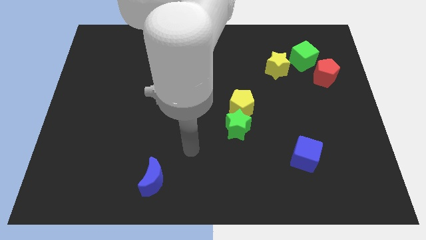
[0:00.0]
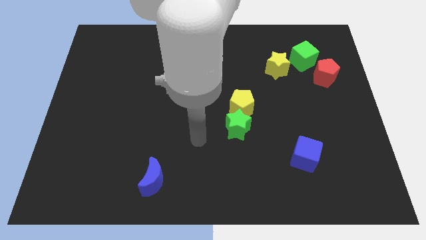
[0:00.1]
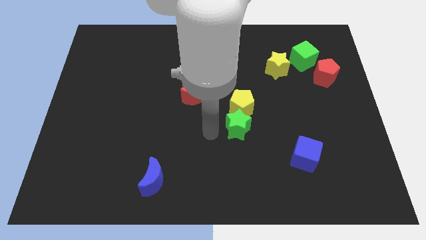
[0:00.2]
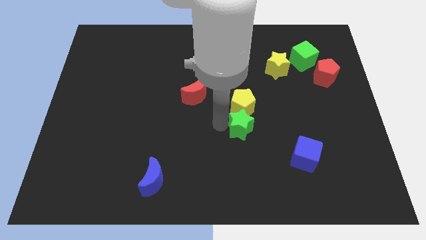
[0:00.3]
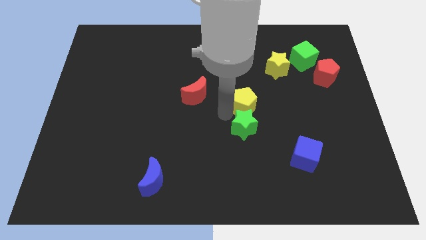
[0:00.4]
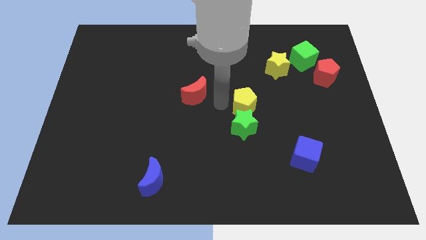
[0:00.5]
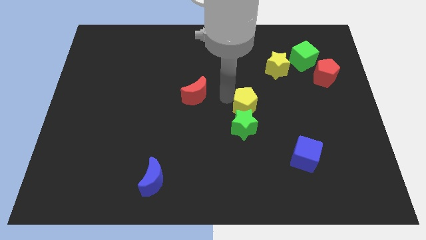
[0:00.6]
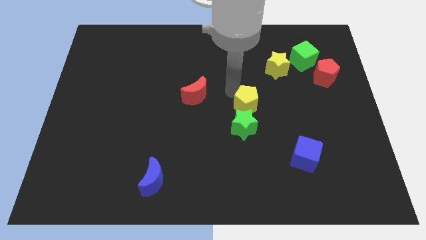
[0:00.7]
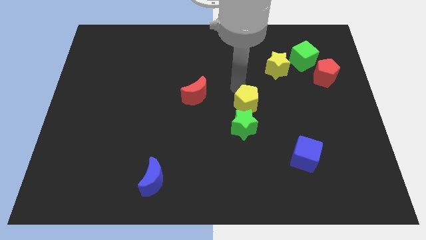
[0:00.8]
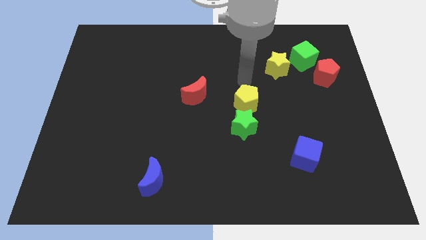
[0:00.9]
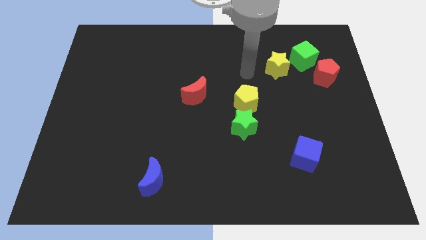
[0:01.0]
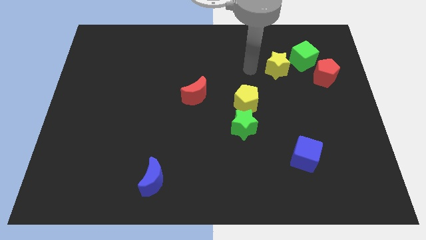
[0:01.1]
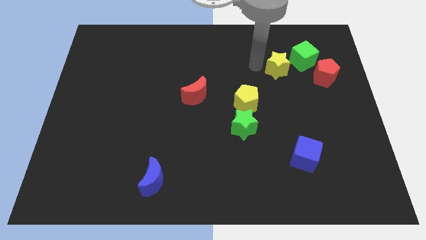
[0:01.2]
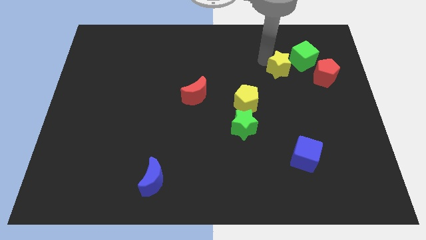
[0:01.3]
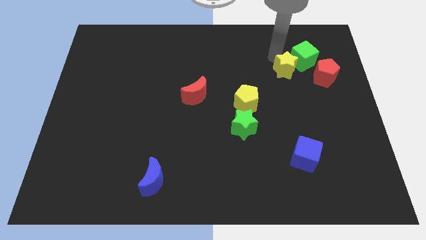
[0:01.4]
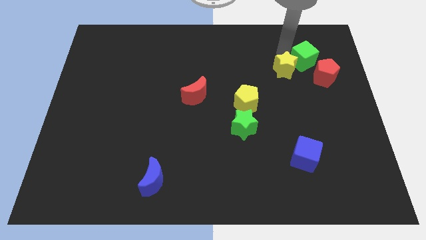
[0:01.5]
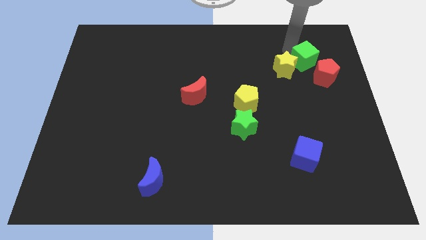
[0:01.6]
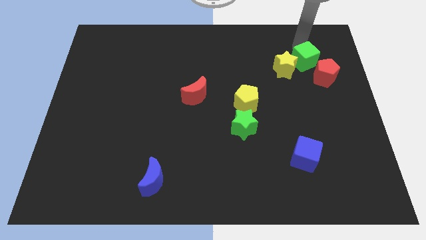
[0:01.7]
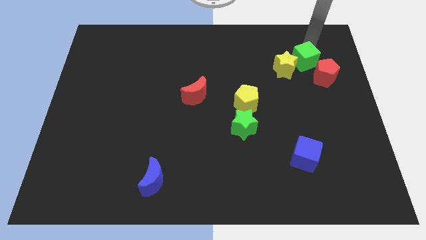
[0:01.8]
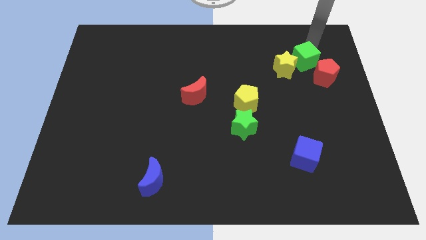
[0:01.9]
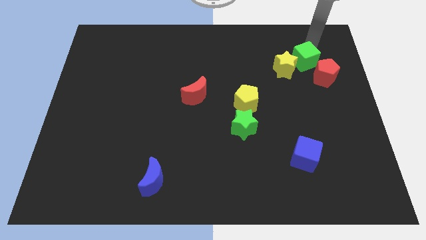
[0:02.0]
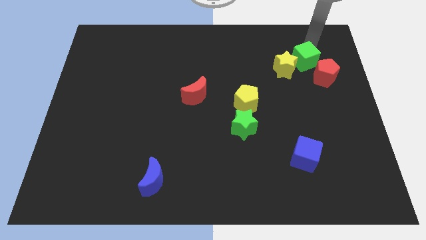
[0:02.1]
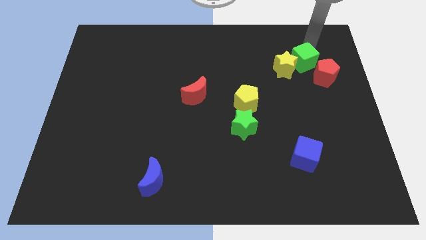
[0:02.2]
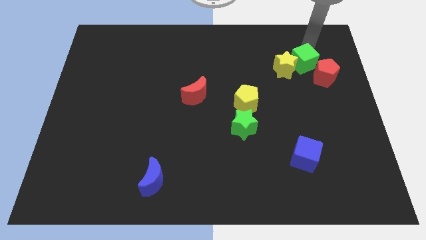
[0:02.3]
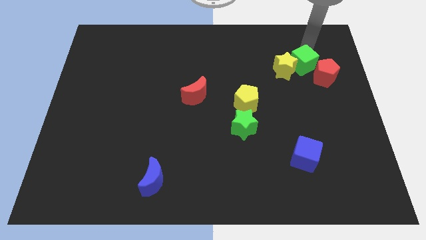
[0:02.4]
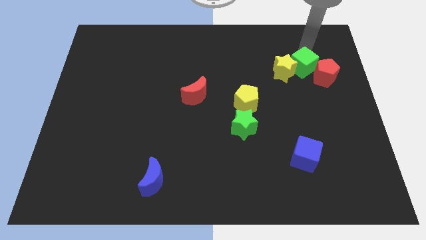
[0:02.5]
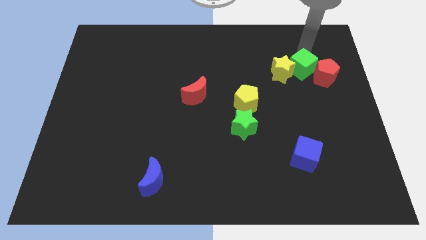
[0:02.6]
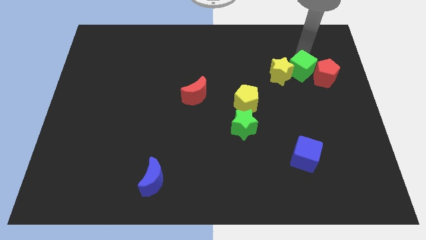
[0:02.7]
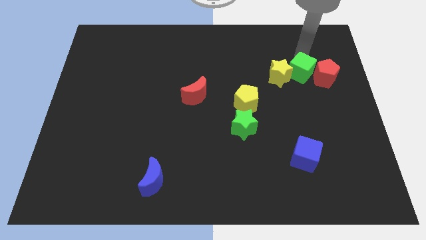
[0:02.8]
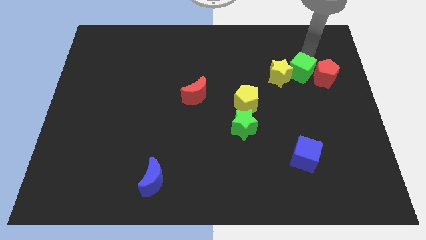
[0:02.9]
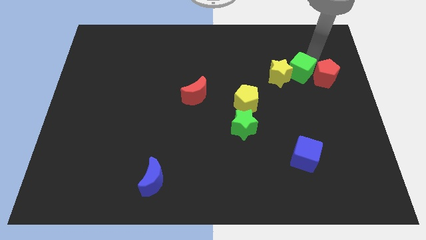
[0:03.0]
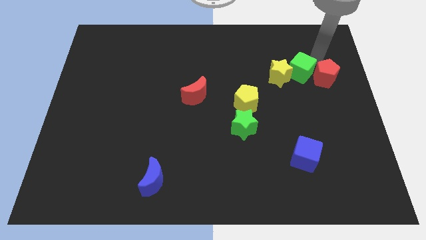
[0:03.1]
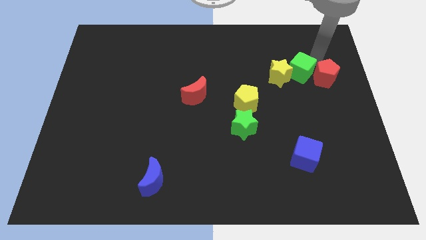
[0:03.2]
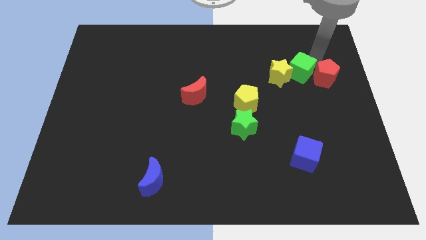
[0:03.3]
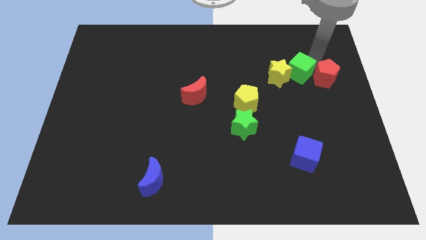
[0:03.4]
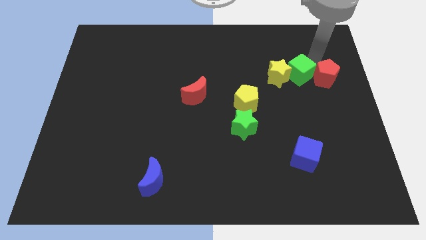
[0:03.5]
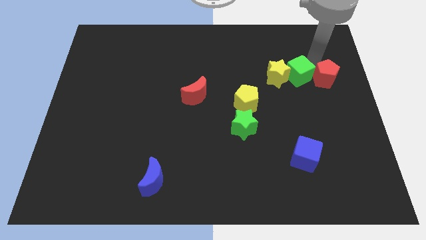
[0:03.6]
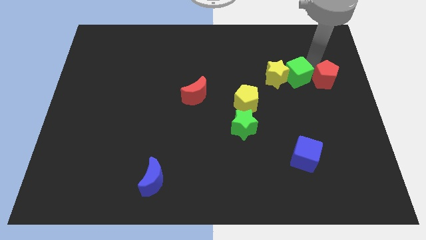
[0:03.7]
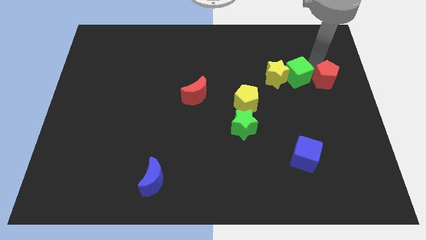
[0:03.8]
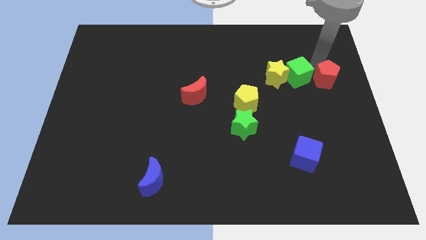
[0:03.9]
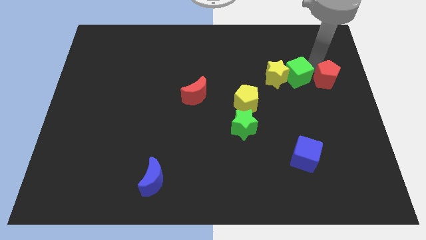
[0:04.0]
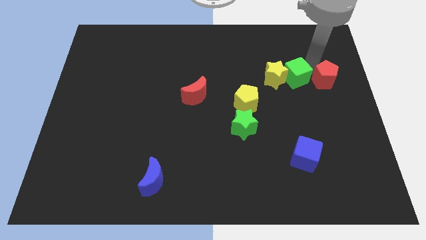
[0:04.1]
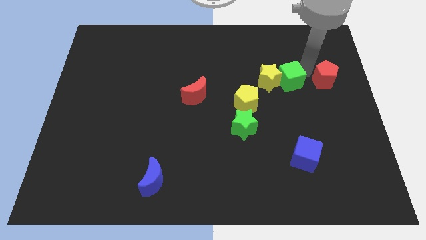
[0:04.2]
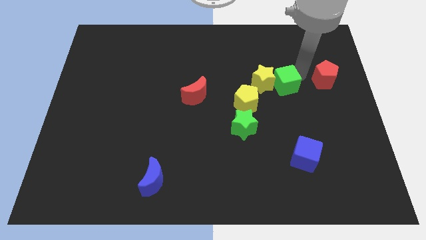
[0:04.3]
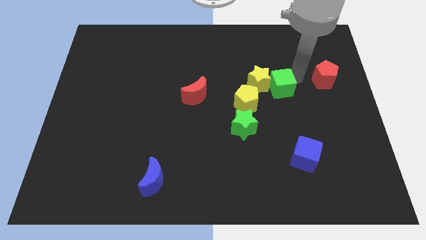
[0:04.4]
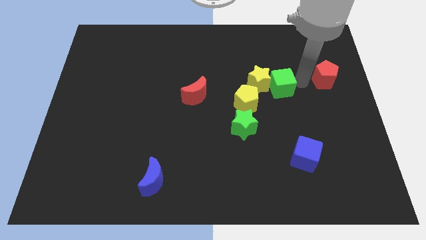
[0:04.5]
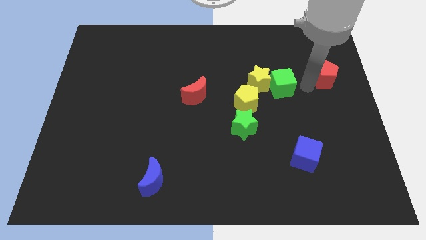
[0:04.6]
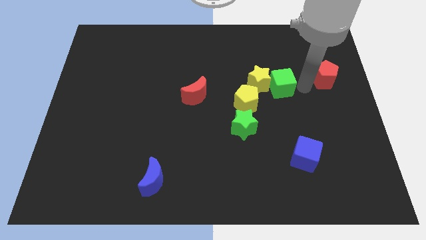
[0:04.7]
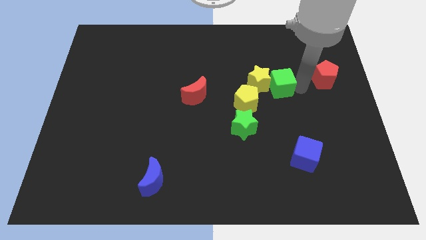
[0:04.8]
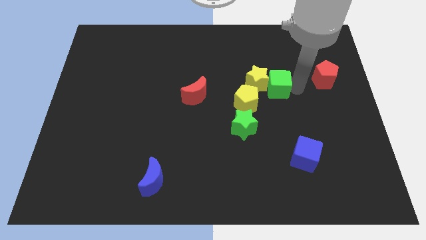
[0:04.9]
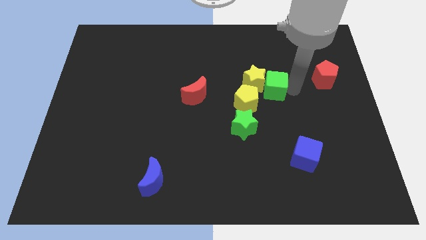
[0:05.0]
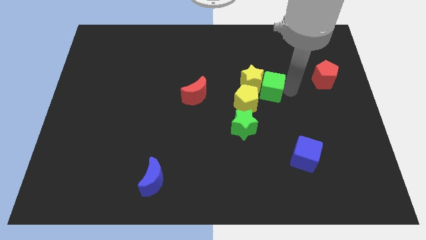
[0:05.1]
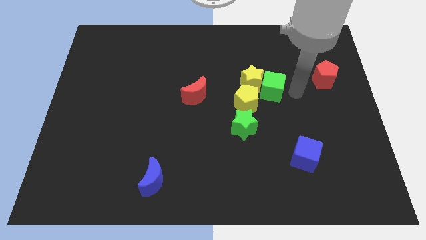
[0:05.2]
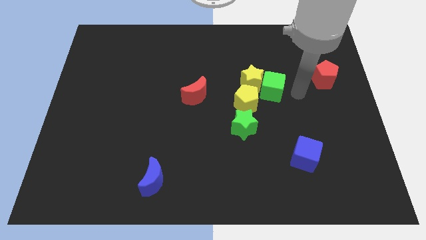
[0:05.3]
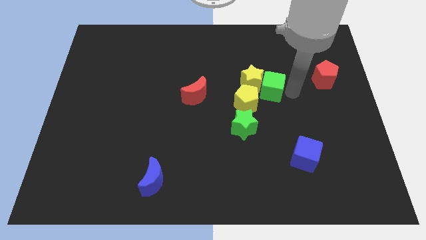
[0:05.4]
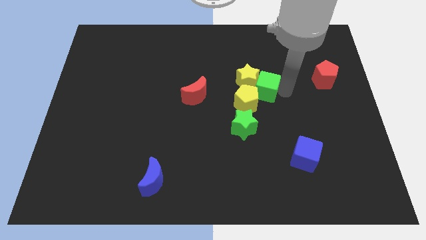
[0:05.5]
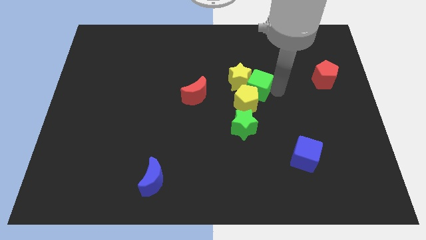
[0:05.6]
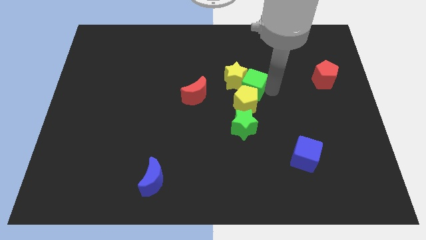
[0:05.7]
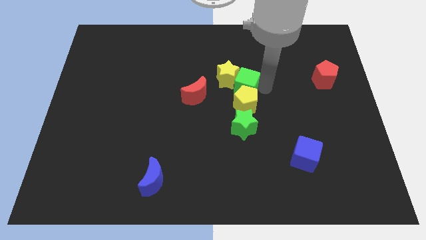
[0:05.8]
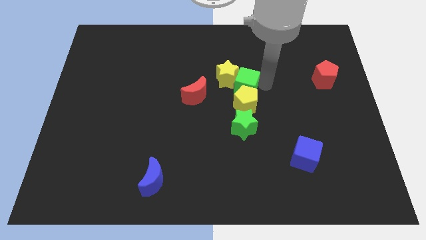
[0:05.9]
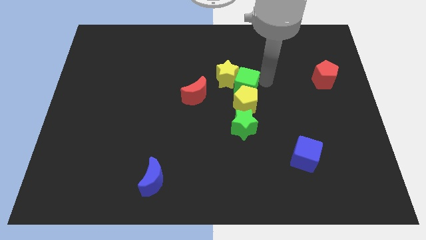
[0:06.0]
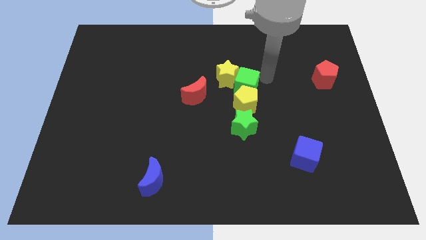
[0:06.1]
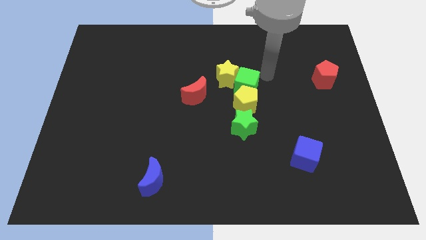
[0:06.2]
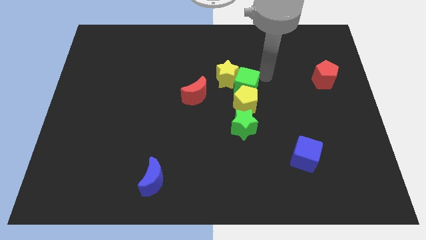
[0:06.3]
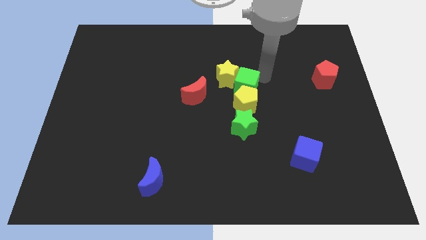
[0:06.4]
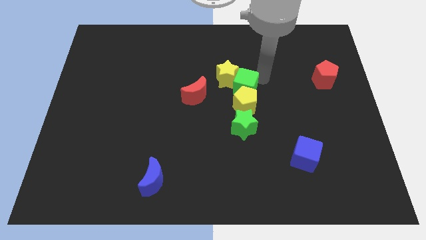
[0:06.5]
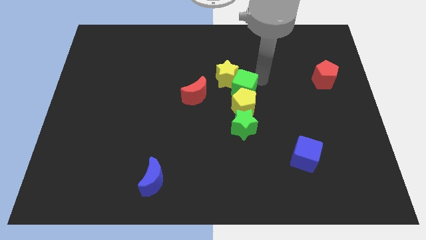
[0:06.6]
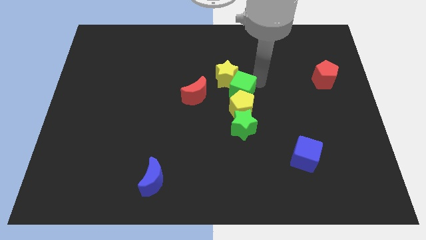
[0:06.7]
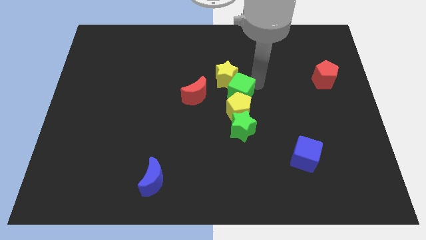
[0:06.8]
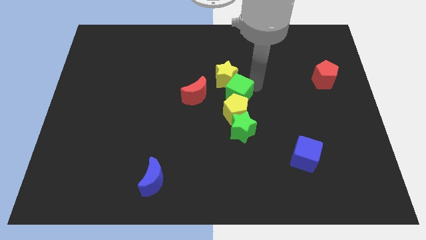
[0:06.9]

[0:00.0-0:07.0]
slide the green cube down and to the left

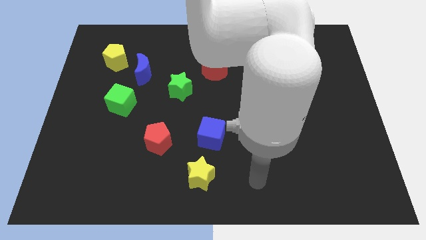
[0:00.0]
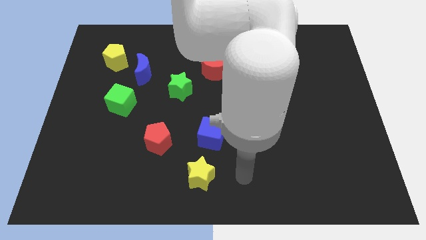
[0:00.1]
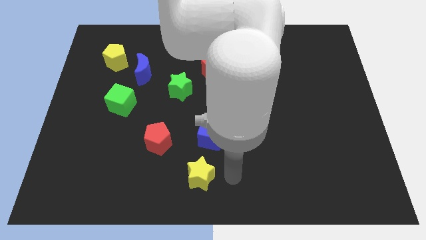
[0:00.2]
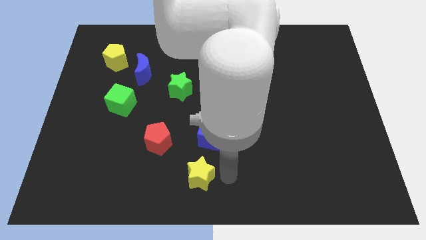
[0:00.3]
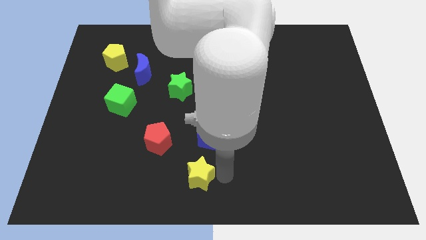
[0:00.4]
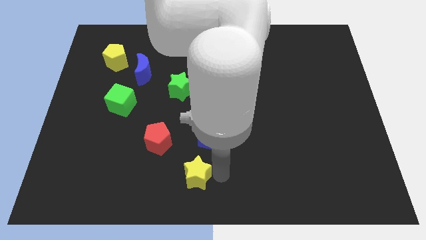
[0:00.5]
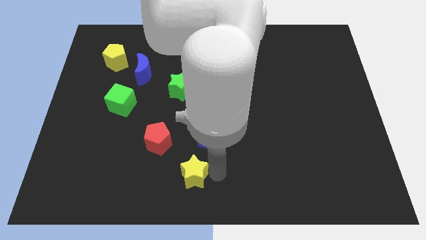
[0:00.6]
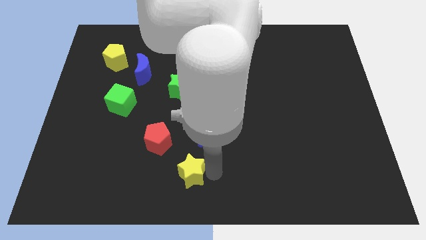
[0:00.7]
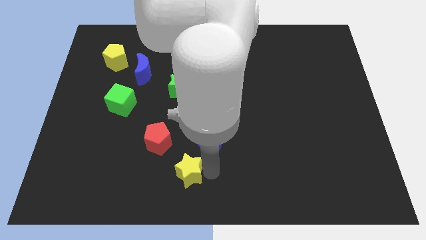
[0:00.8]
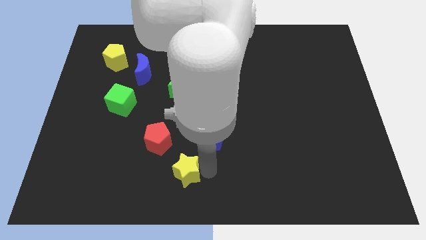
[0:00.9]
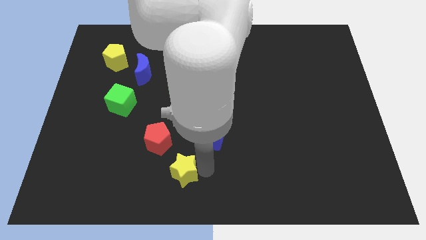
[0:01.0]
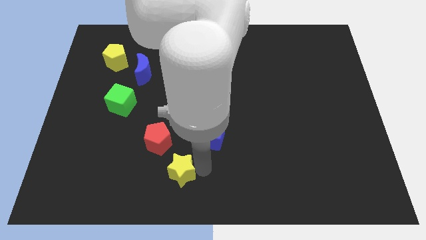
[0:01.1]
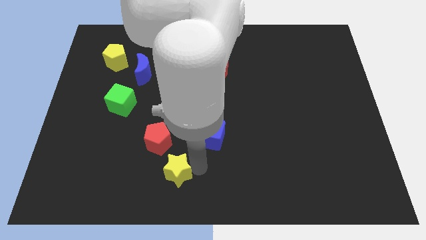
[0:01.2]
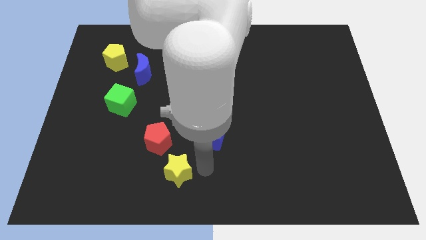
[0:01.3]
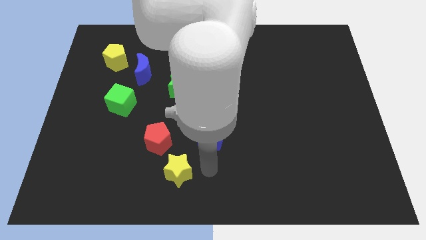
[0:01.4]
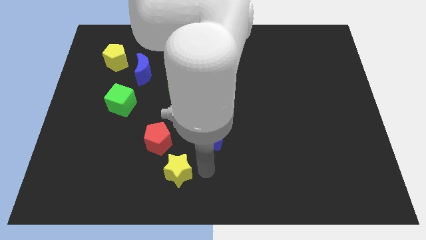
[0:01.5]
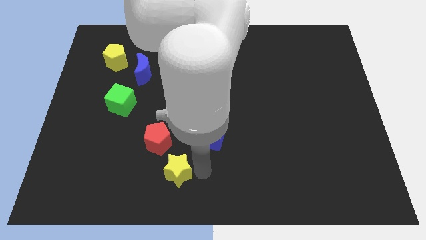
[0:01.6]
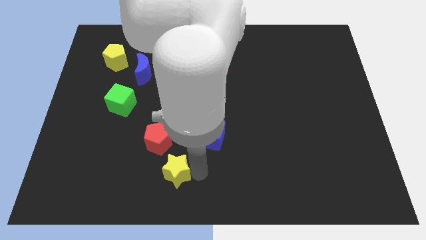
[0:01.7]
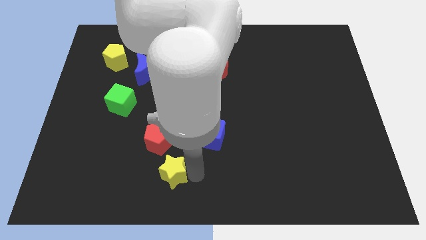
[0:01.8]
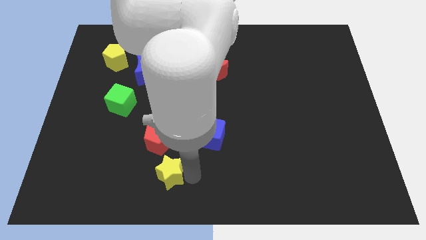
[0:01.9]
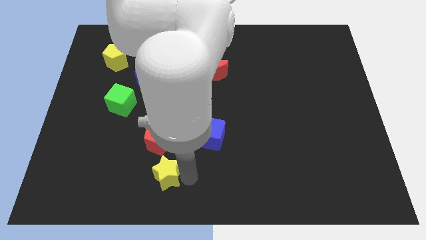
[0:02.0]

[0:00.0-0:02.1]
slightly slide the yellow star left
